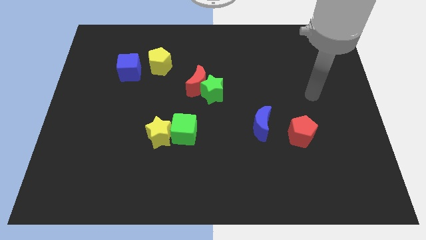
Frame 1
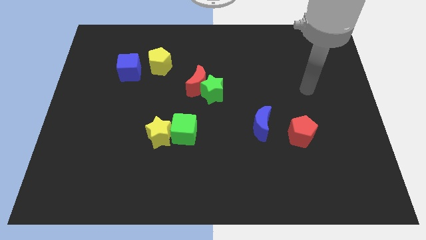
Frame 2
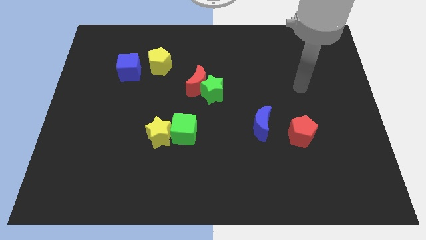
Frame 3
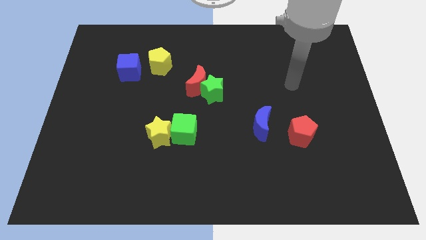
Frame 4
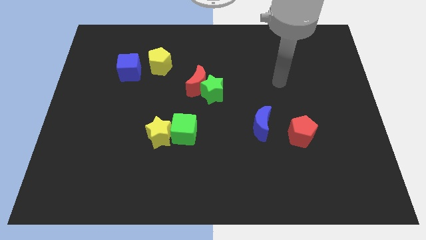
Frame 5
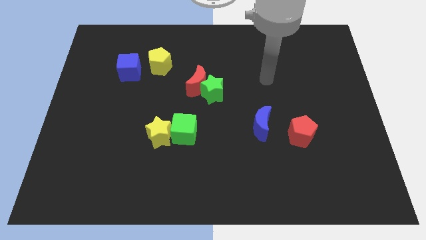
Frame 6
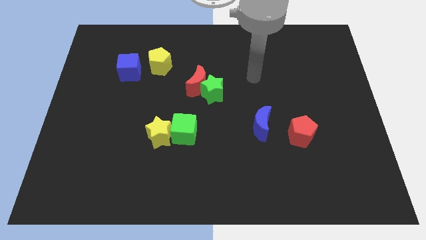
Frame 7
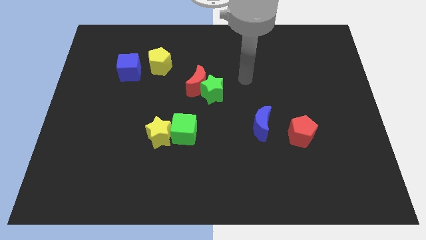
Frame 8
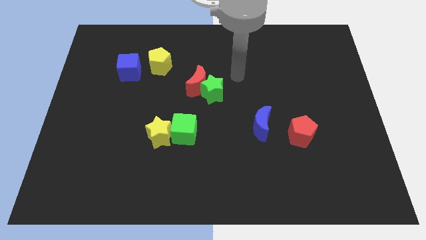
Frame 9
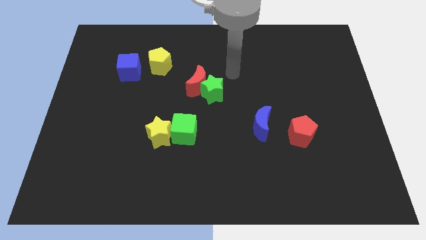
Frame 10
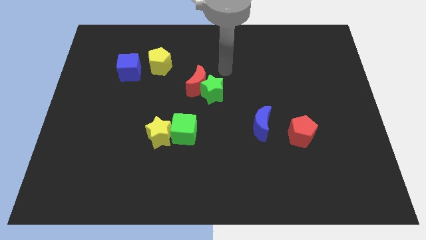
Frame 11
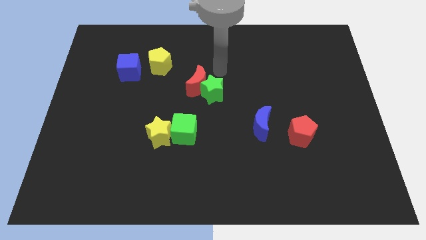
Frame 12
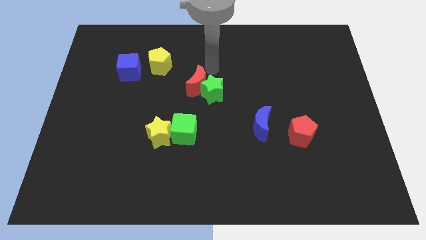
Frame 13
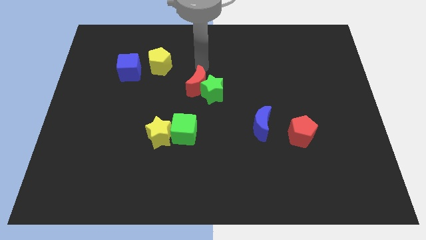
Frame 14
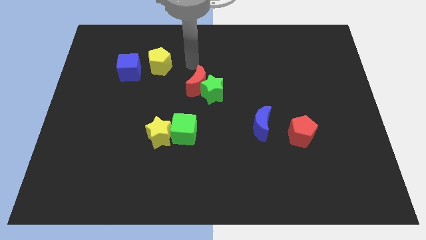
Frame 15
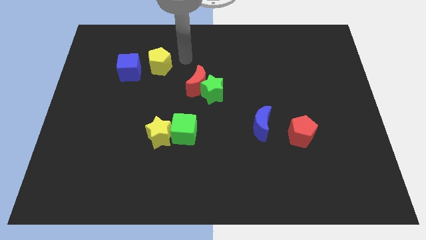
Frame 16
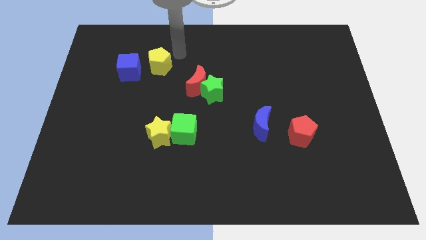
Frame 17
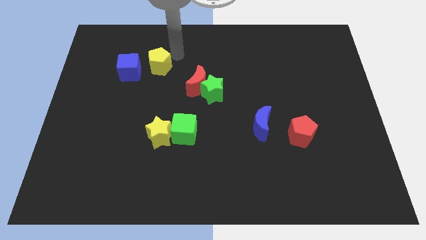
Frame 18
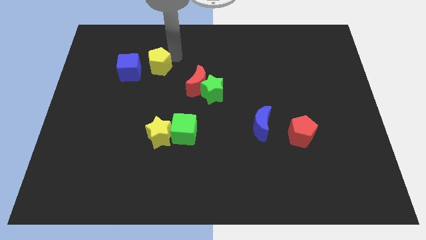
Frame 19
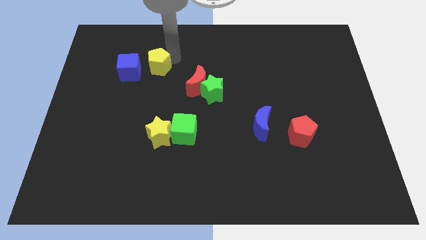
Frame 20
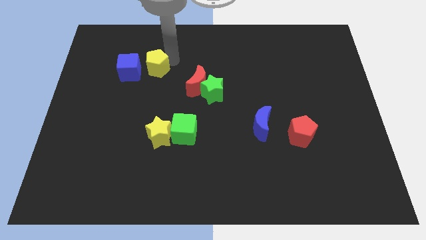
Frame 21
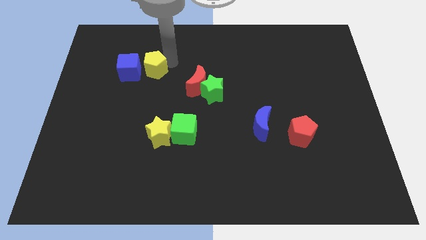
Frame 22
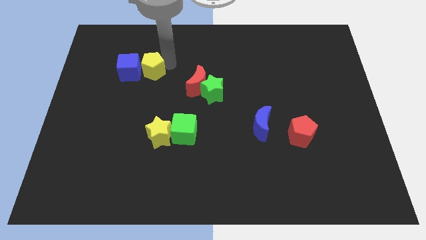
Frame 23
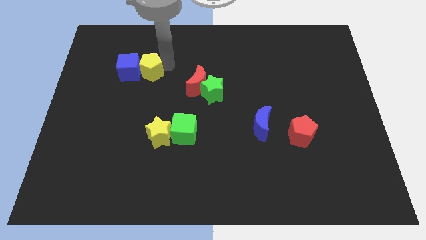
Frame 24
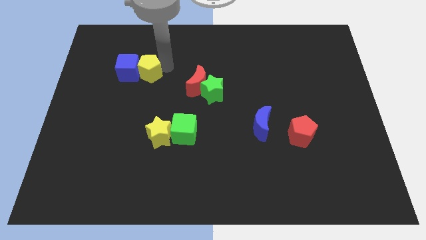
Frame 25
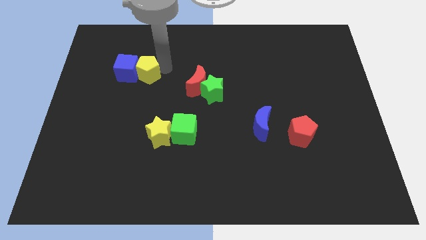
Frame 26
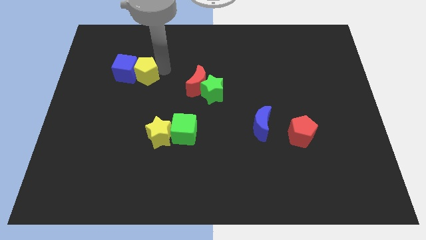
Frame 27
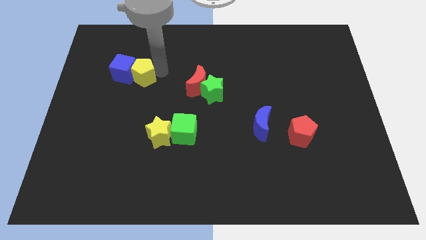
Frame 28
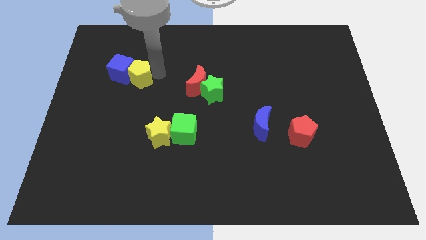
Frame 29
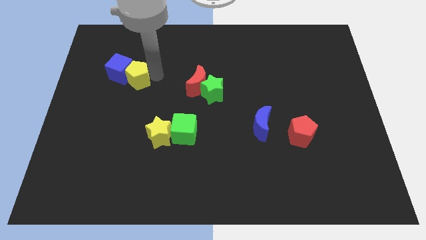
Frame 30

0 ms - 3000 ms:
move the yellow pentagon down and then left somewhat

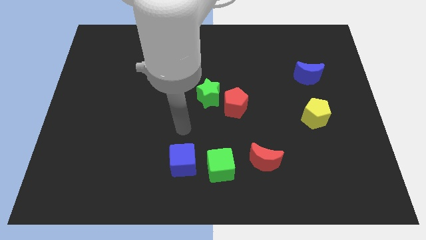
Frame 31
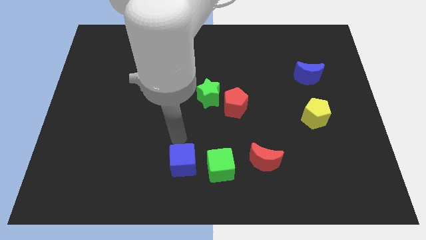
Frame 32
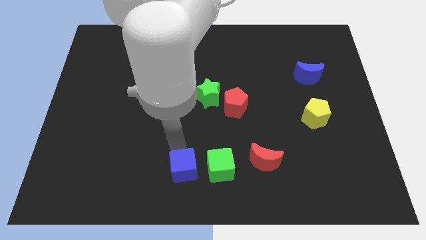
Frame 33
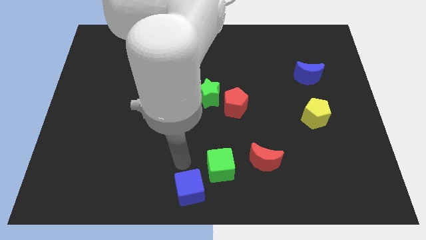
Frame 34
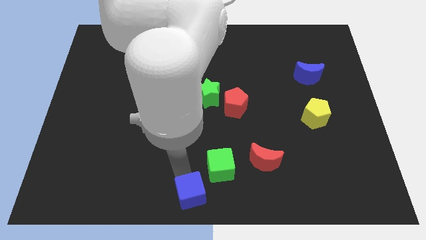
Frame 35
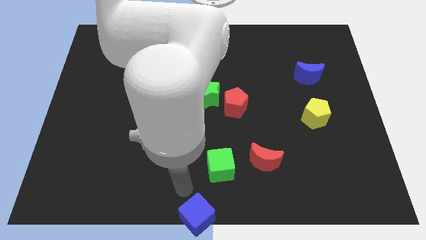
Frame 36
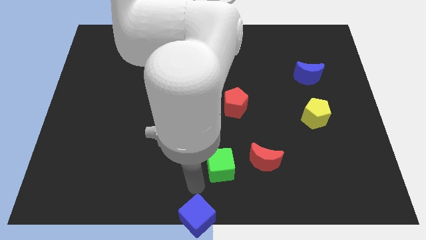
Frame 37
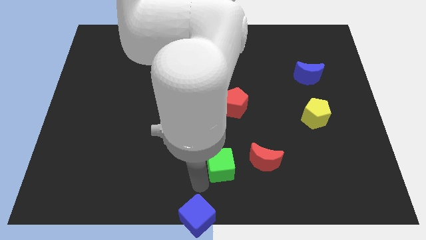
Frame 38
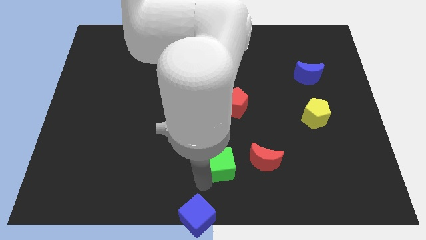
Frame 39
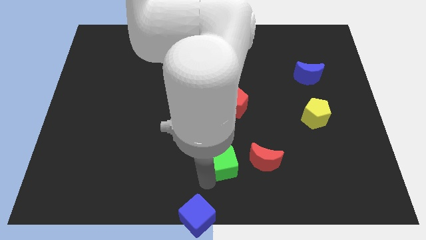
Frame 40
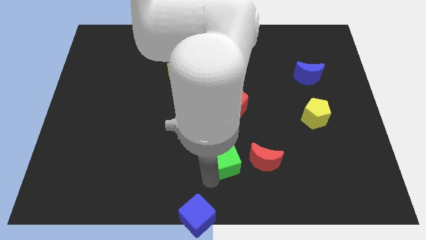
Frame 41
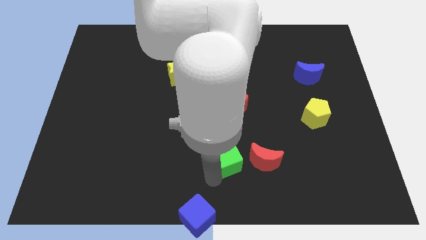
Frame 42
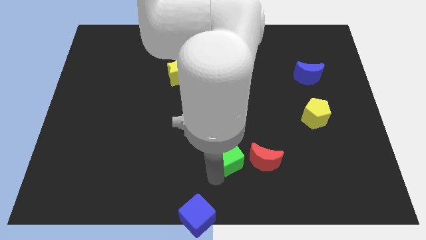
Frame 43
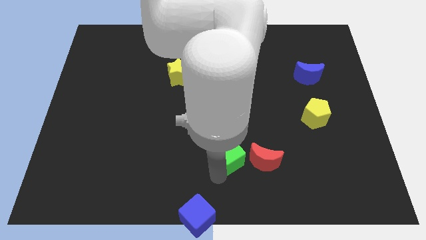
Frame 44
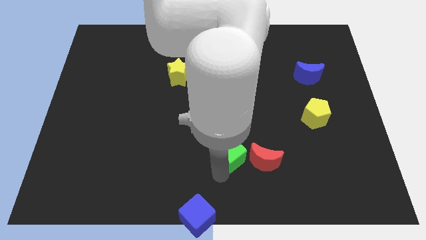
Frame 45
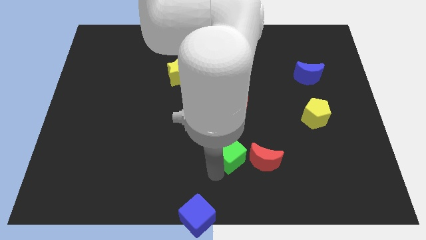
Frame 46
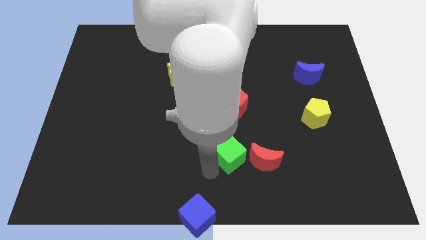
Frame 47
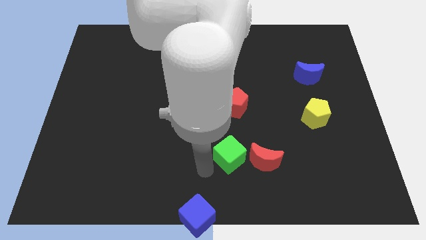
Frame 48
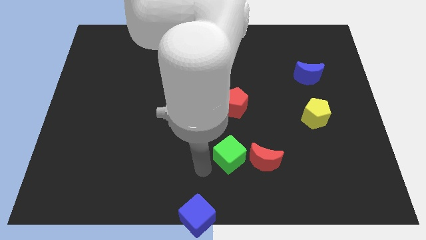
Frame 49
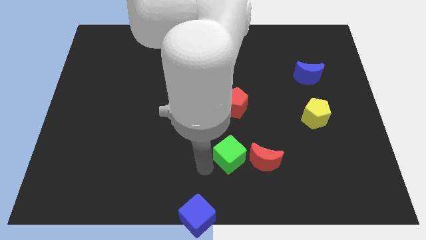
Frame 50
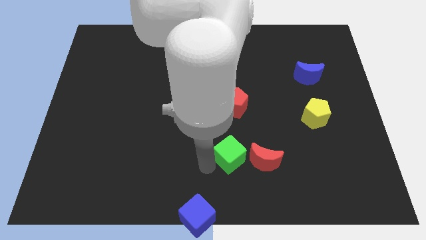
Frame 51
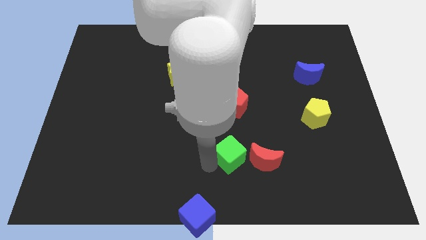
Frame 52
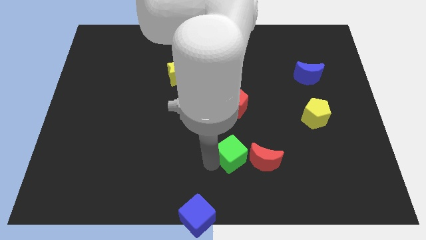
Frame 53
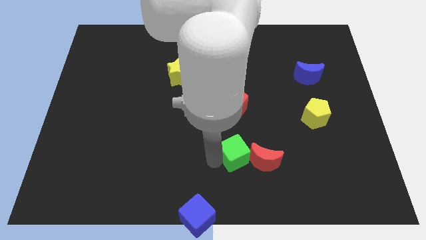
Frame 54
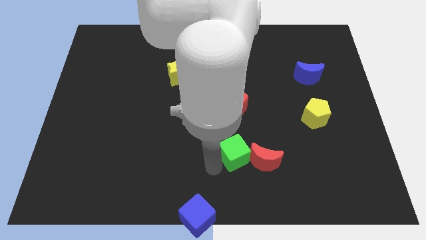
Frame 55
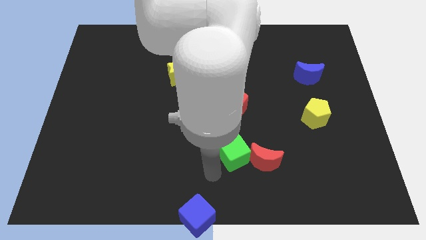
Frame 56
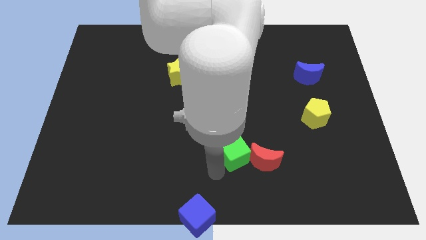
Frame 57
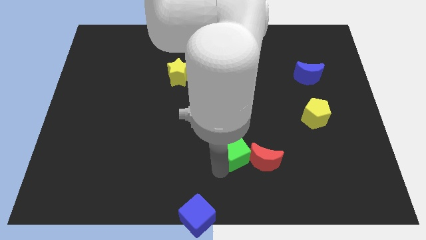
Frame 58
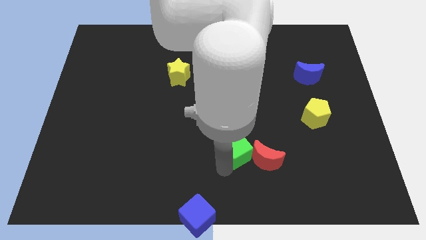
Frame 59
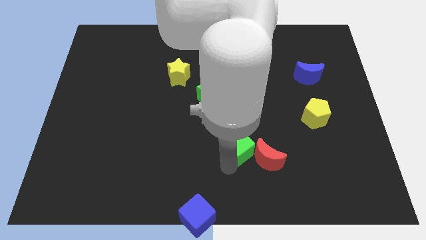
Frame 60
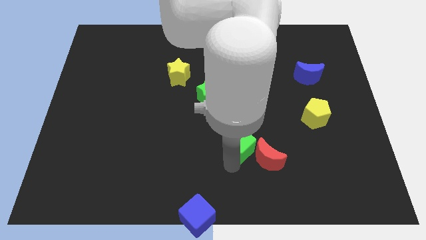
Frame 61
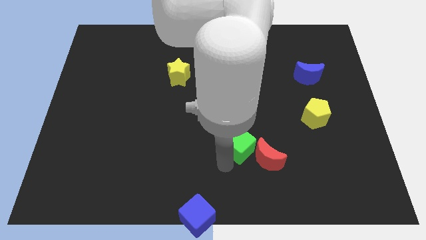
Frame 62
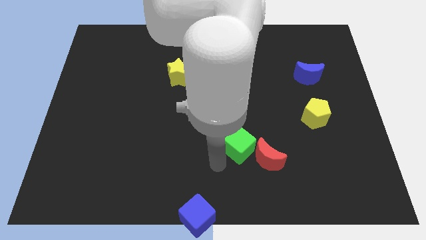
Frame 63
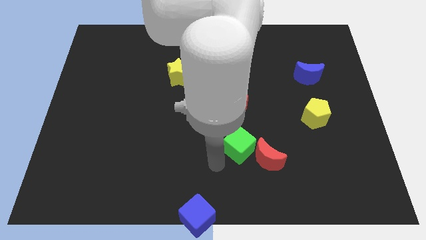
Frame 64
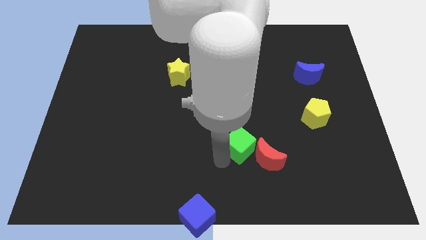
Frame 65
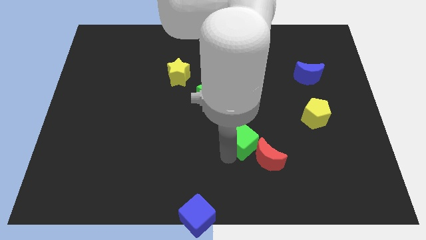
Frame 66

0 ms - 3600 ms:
push the green cube somewhat diagonally upwards and to the right

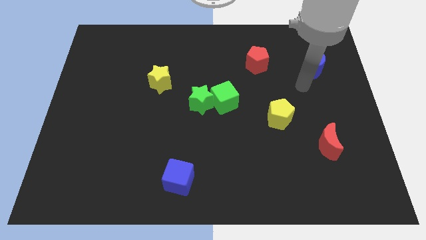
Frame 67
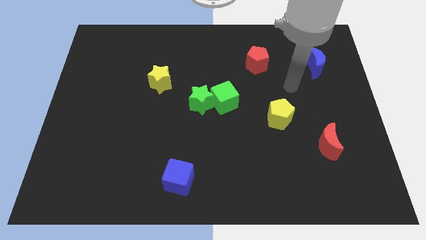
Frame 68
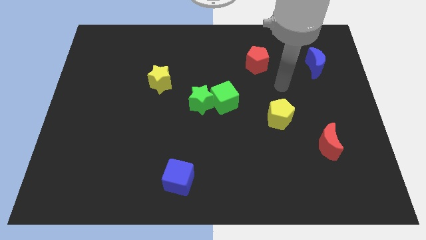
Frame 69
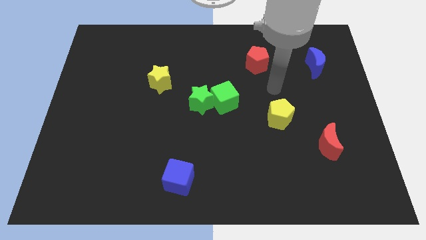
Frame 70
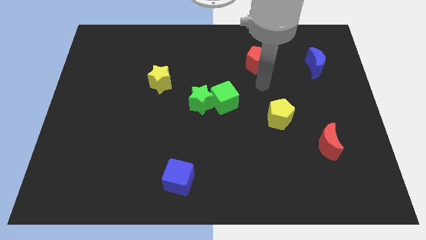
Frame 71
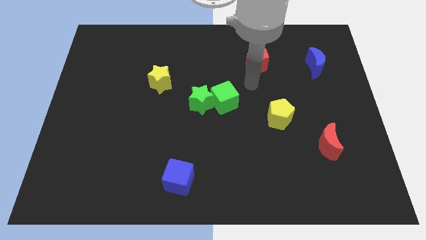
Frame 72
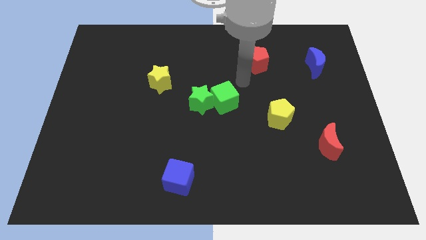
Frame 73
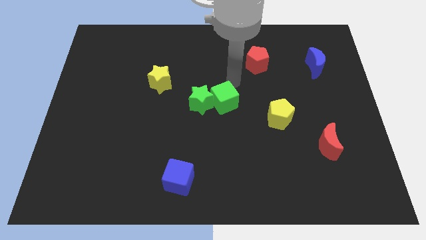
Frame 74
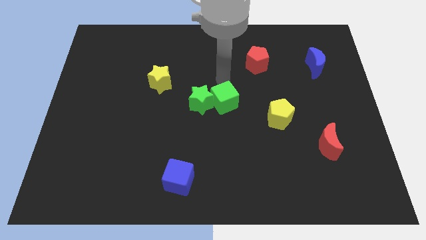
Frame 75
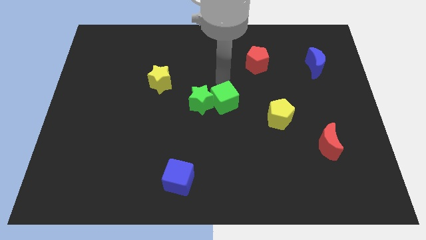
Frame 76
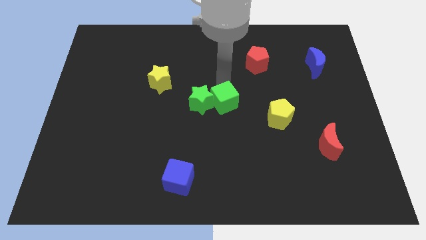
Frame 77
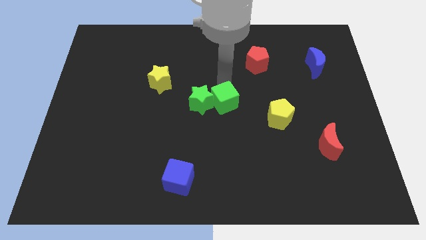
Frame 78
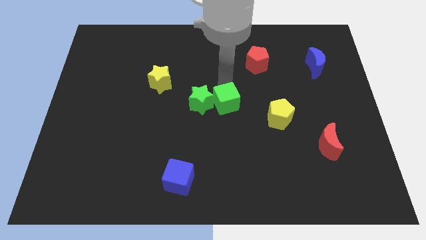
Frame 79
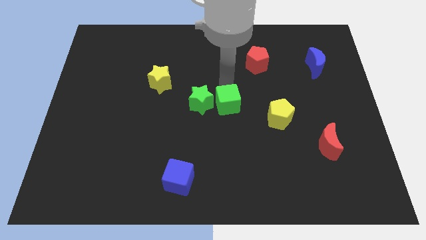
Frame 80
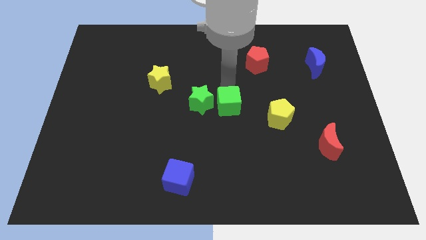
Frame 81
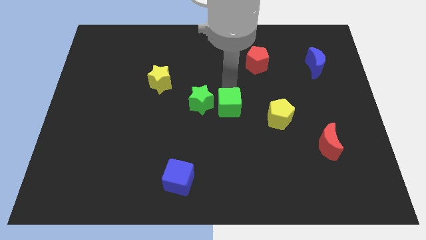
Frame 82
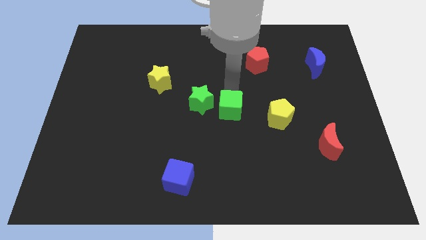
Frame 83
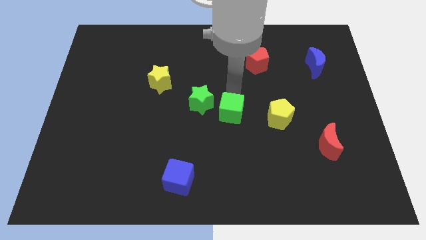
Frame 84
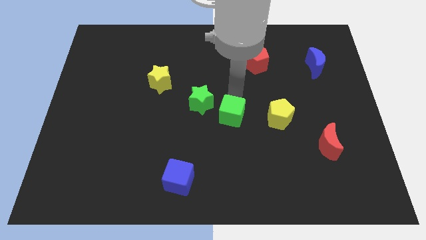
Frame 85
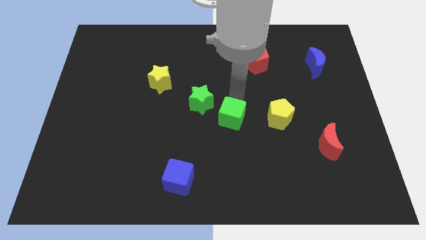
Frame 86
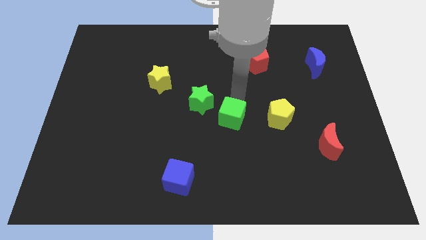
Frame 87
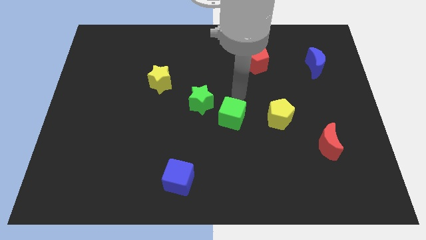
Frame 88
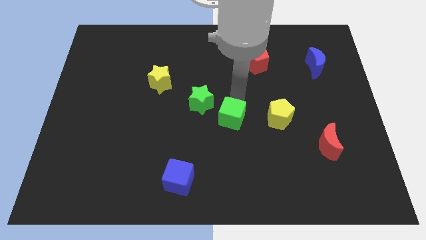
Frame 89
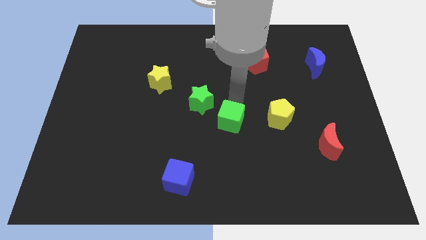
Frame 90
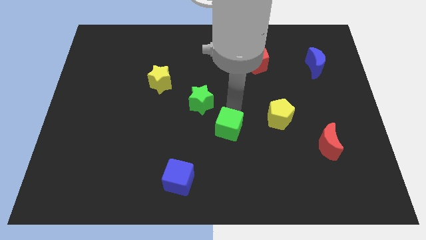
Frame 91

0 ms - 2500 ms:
slightly move the green cube downwards
